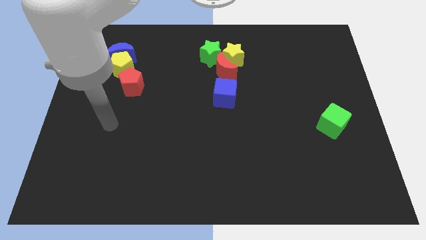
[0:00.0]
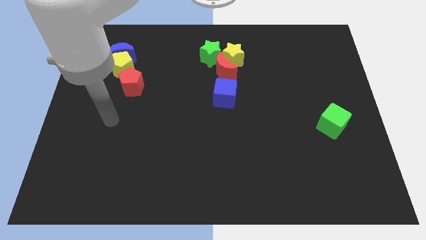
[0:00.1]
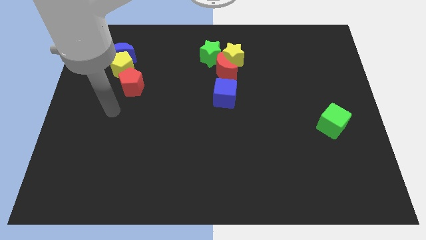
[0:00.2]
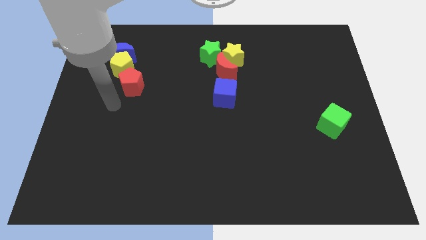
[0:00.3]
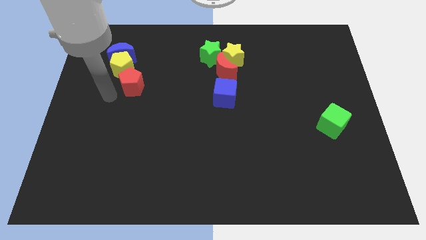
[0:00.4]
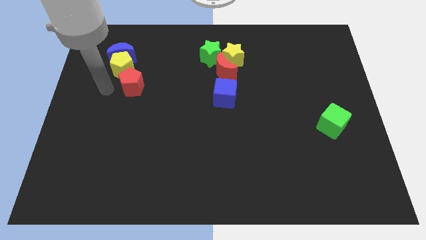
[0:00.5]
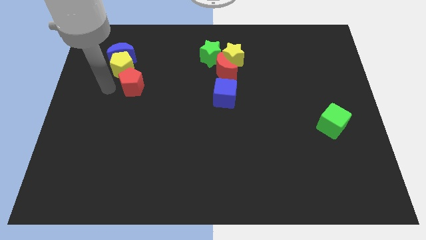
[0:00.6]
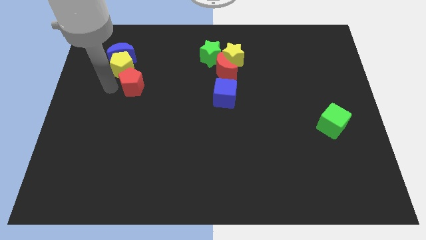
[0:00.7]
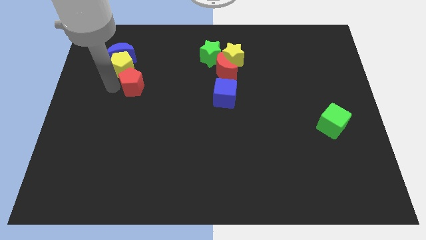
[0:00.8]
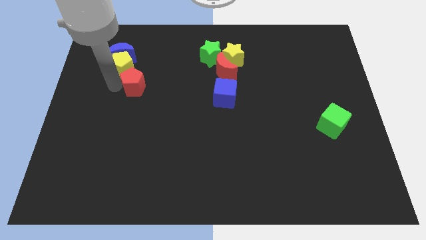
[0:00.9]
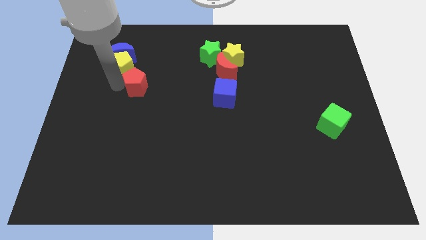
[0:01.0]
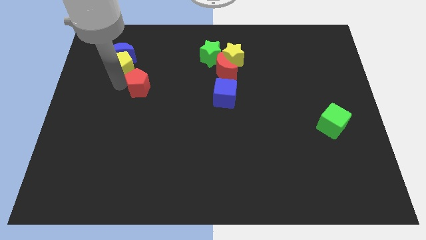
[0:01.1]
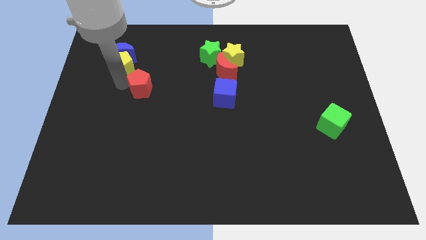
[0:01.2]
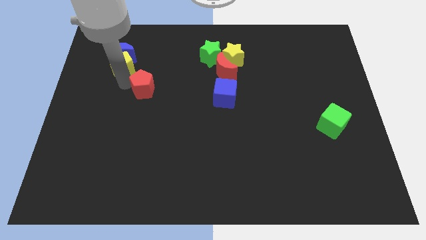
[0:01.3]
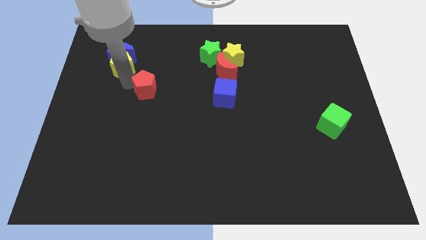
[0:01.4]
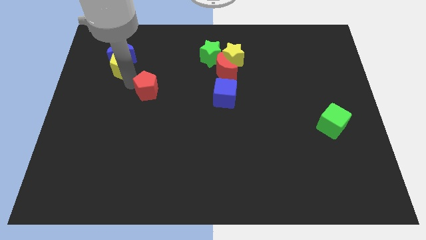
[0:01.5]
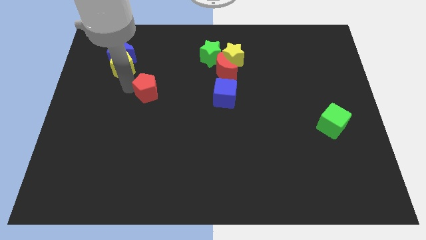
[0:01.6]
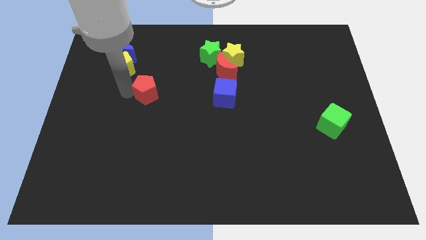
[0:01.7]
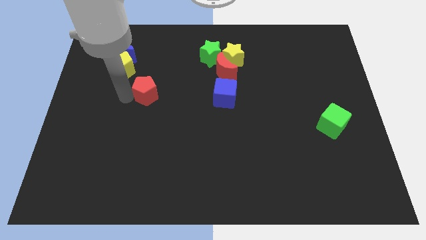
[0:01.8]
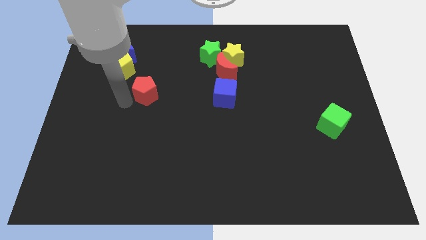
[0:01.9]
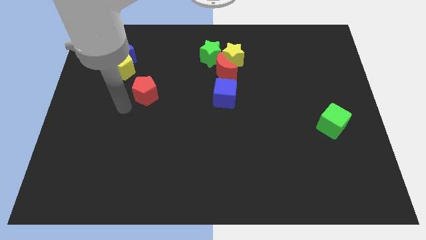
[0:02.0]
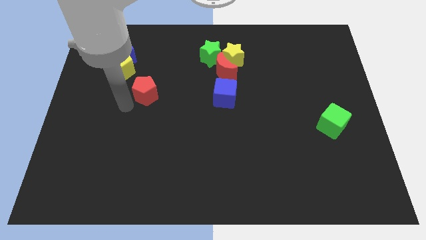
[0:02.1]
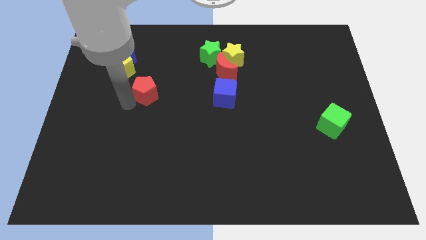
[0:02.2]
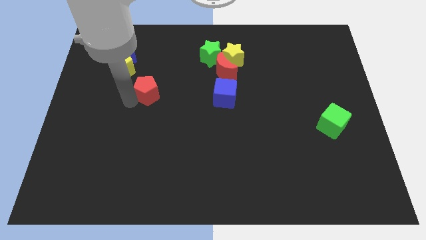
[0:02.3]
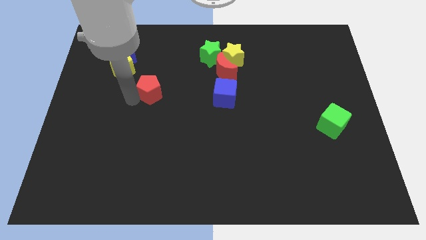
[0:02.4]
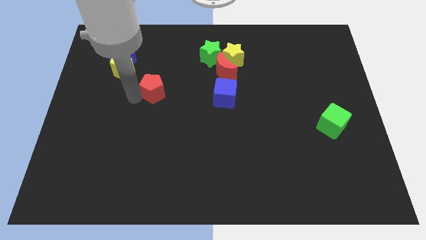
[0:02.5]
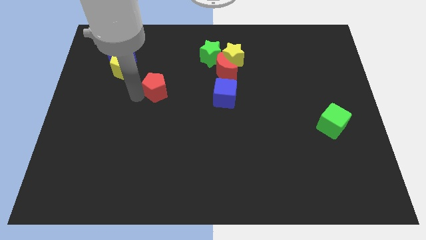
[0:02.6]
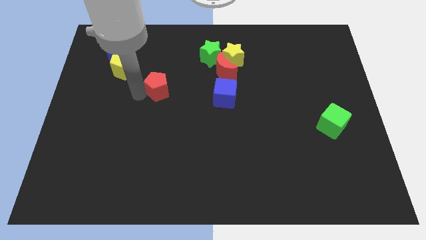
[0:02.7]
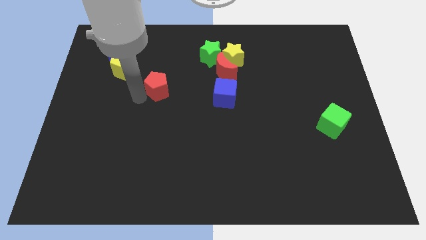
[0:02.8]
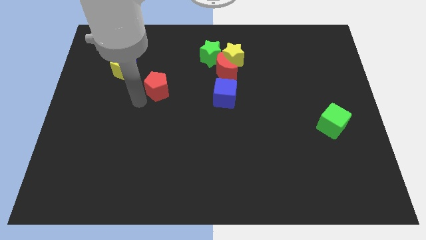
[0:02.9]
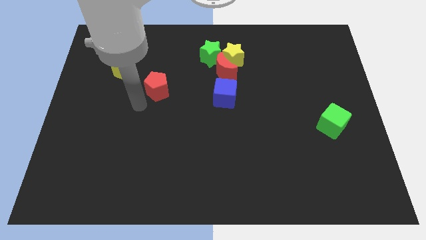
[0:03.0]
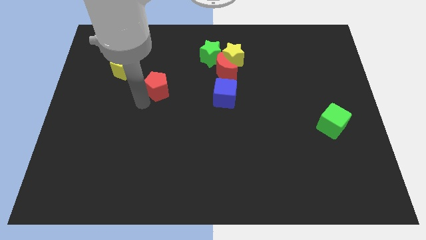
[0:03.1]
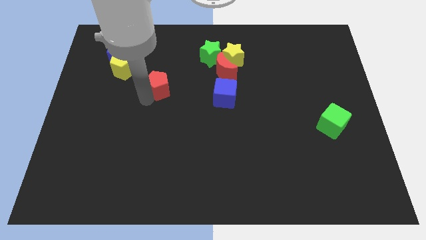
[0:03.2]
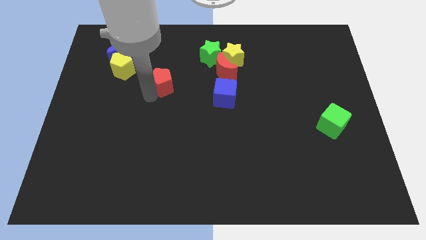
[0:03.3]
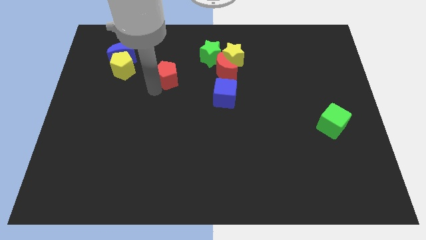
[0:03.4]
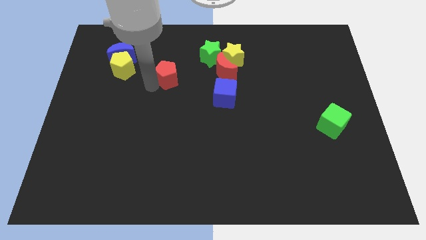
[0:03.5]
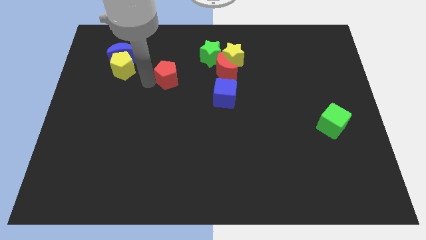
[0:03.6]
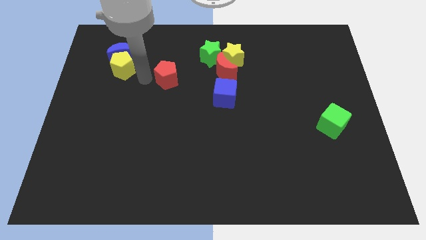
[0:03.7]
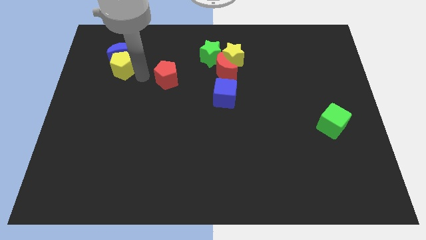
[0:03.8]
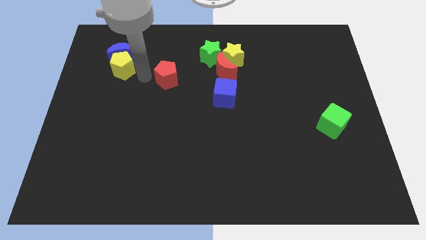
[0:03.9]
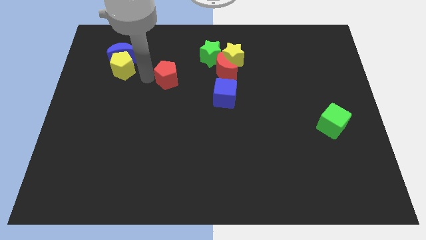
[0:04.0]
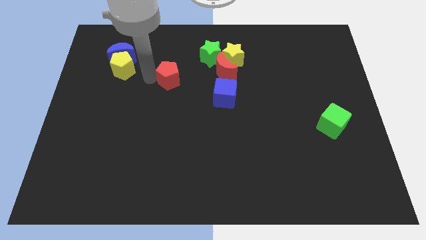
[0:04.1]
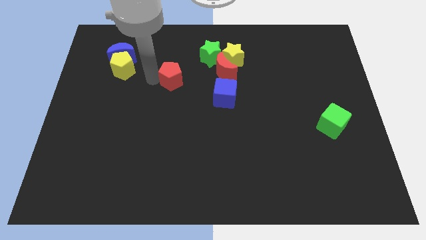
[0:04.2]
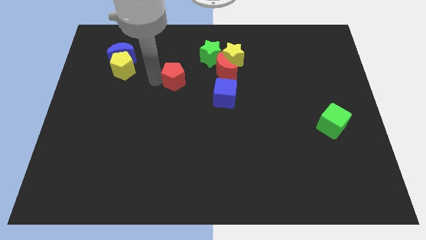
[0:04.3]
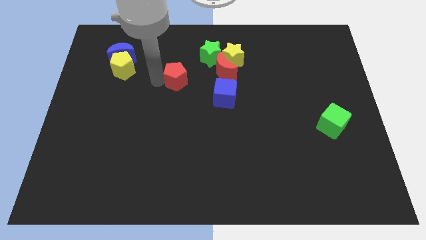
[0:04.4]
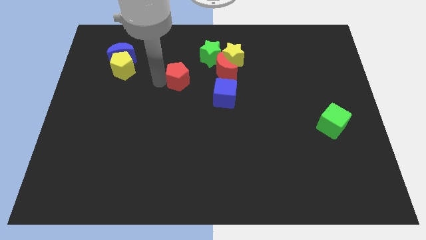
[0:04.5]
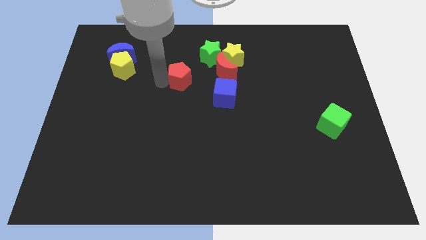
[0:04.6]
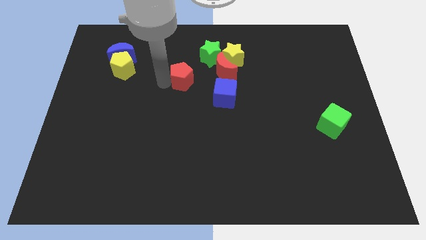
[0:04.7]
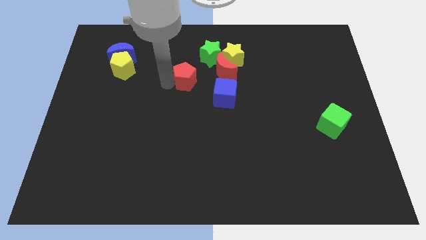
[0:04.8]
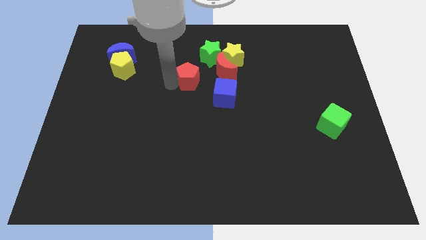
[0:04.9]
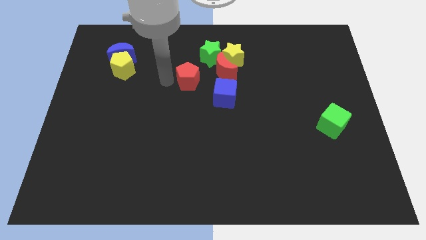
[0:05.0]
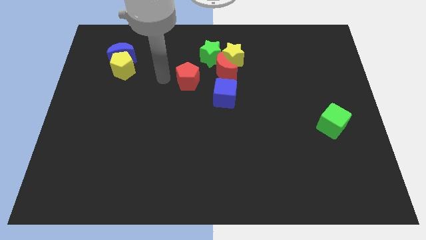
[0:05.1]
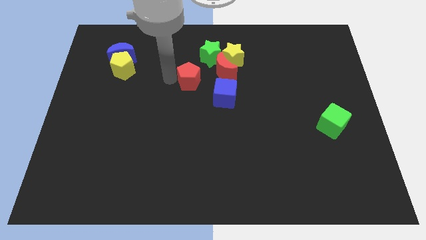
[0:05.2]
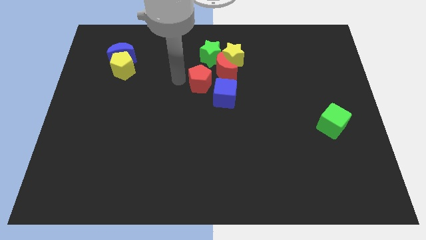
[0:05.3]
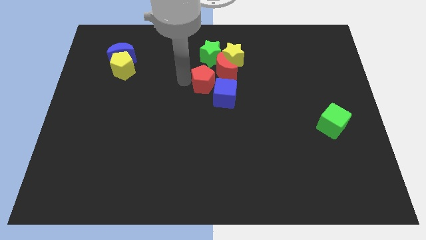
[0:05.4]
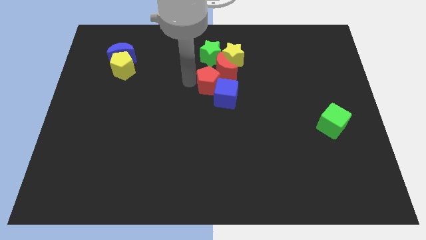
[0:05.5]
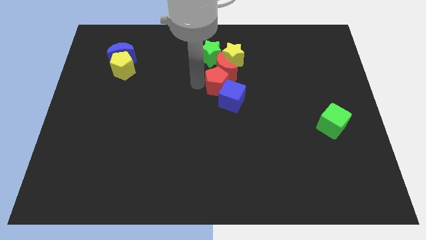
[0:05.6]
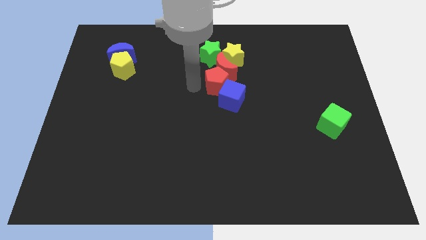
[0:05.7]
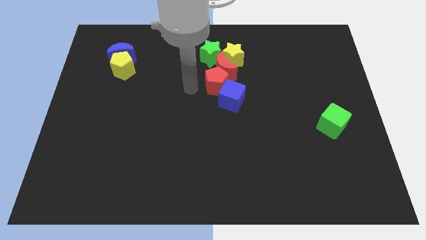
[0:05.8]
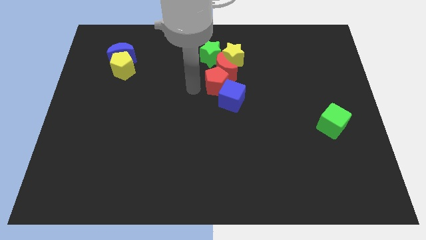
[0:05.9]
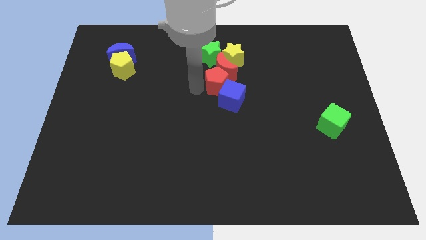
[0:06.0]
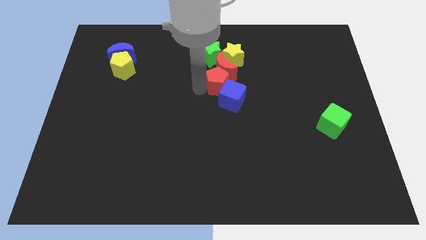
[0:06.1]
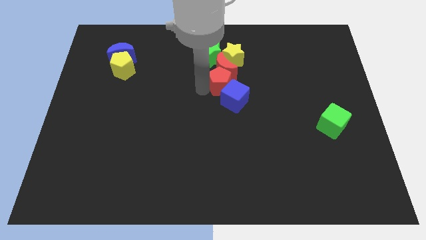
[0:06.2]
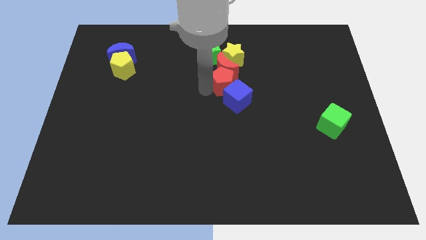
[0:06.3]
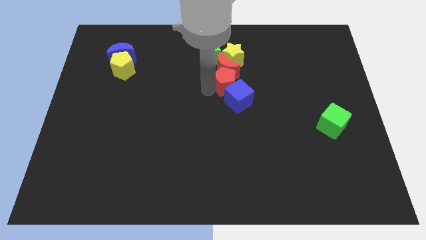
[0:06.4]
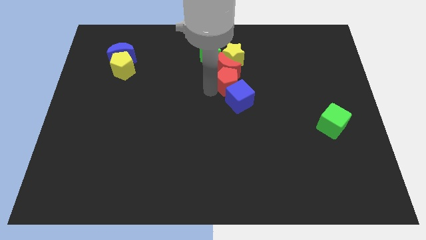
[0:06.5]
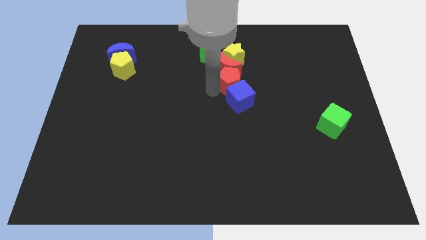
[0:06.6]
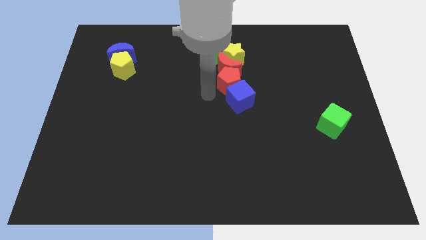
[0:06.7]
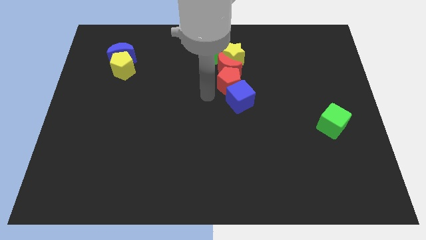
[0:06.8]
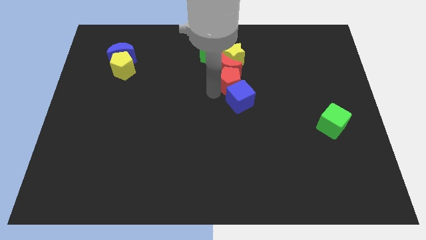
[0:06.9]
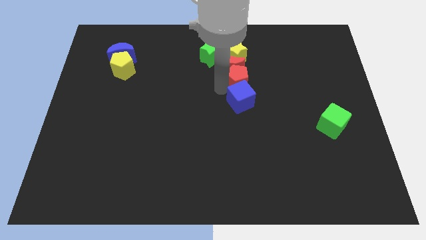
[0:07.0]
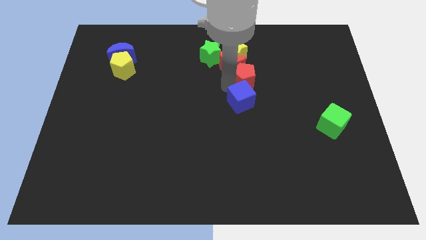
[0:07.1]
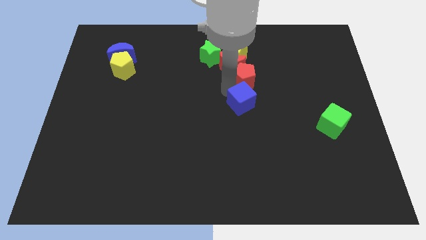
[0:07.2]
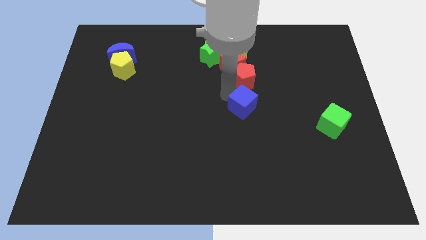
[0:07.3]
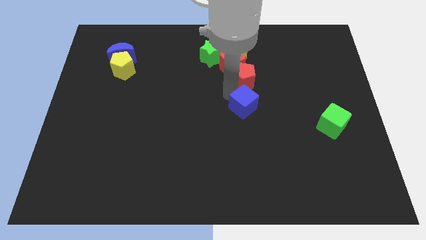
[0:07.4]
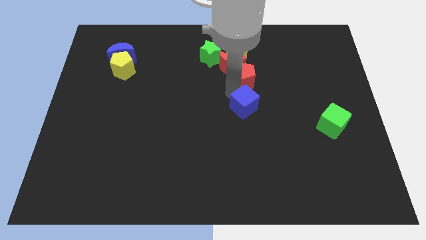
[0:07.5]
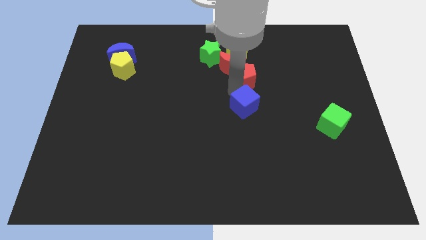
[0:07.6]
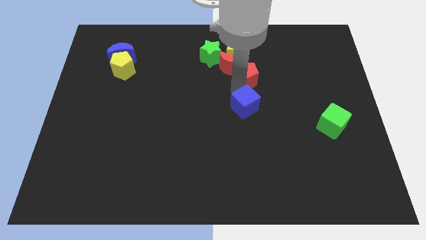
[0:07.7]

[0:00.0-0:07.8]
slide the red pentagon diagonally down and to the right of the yellow star
